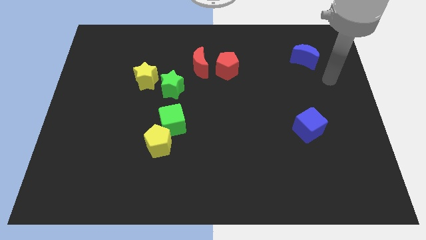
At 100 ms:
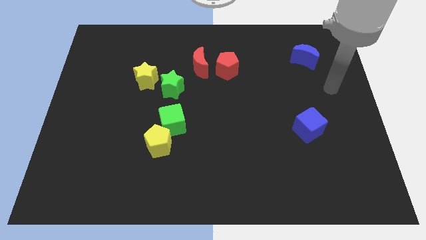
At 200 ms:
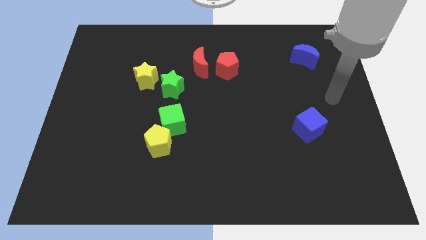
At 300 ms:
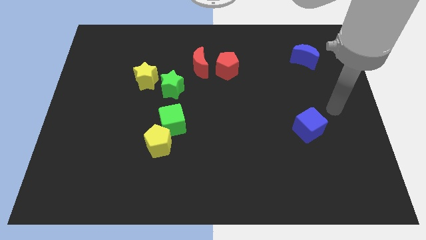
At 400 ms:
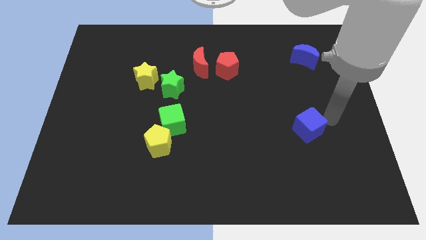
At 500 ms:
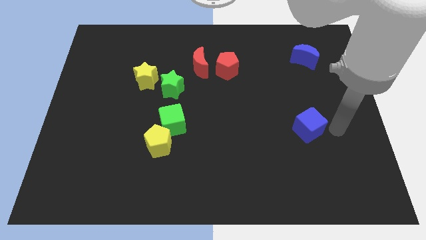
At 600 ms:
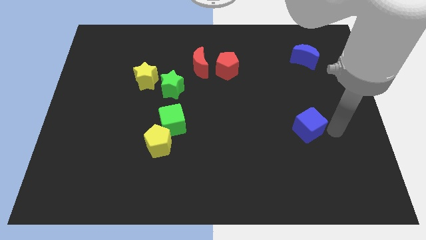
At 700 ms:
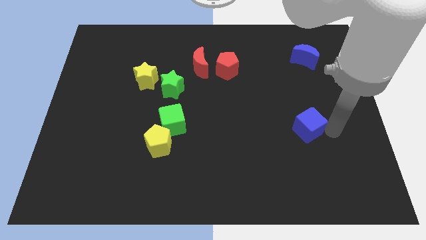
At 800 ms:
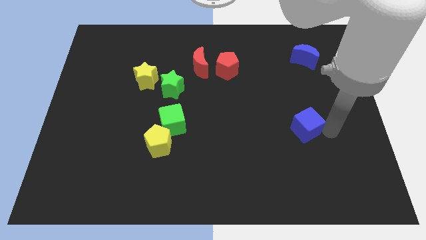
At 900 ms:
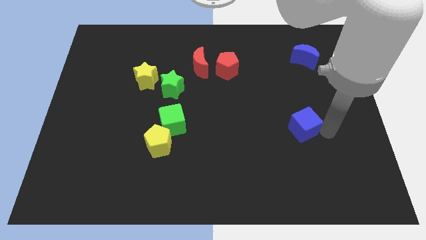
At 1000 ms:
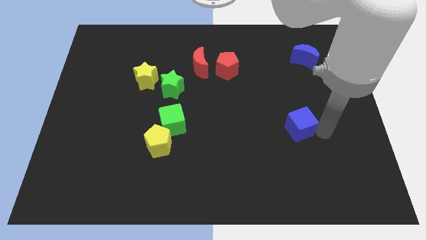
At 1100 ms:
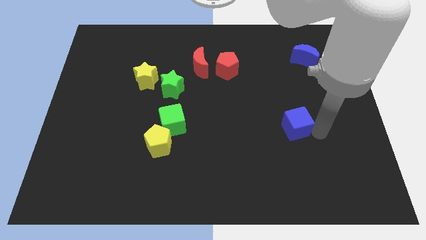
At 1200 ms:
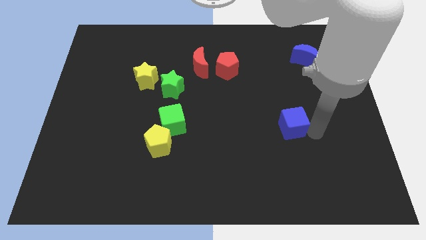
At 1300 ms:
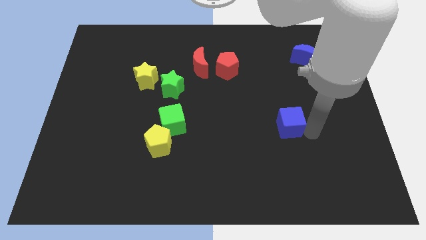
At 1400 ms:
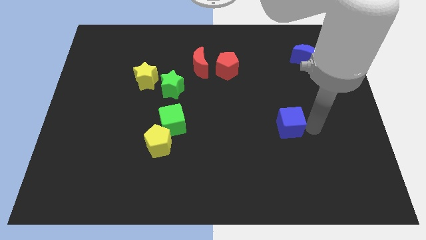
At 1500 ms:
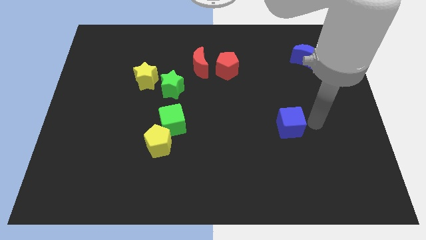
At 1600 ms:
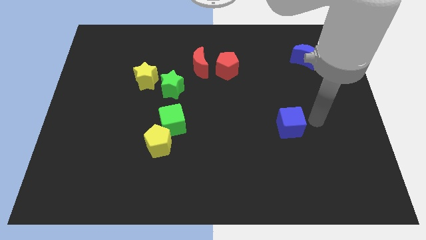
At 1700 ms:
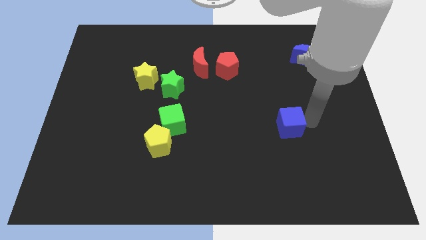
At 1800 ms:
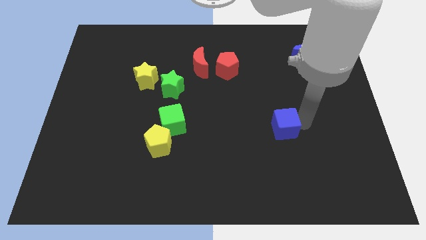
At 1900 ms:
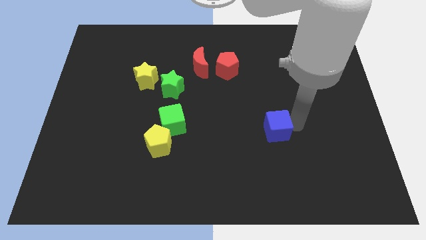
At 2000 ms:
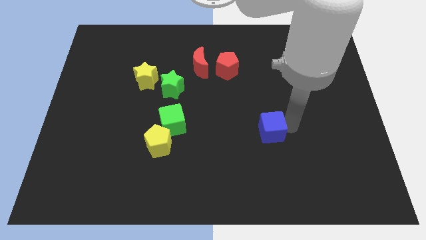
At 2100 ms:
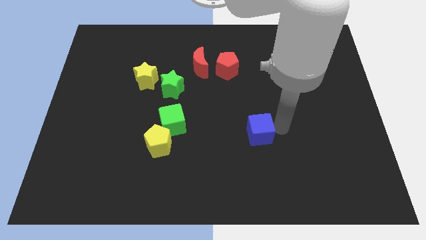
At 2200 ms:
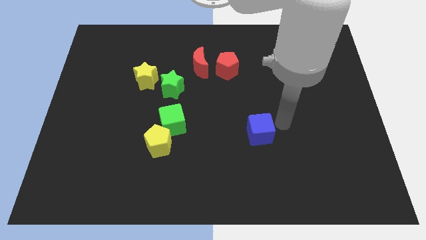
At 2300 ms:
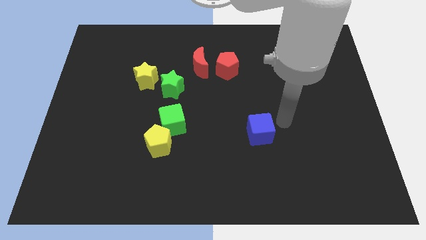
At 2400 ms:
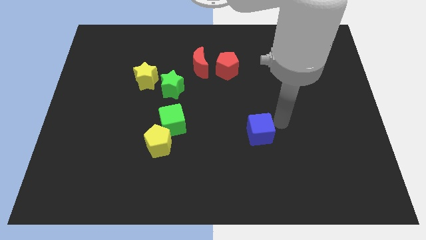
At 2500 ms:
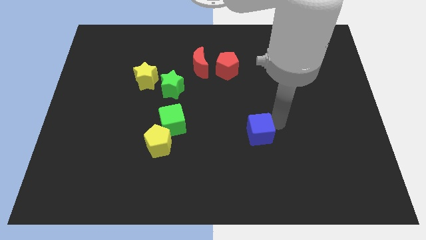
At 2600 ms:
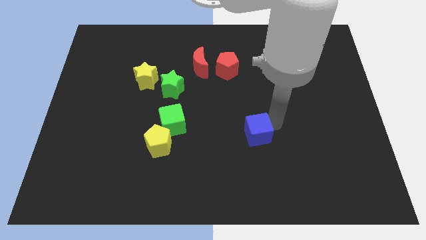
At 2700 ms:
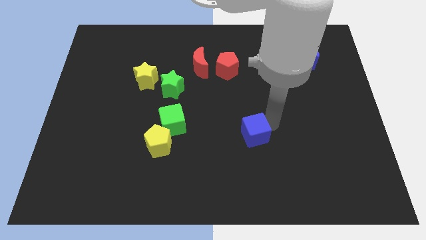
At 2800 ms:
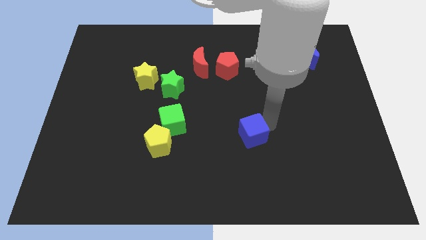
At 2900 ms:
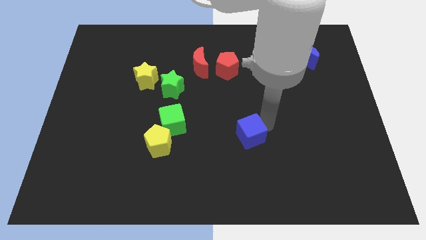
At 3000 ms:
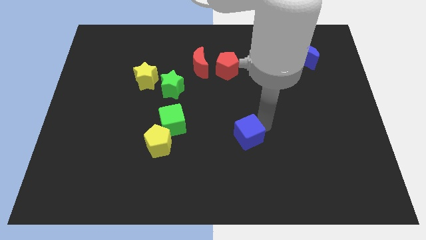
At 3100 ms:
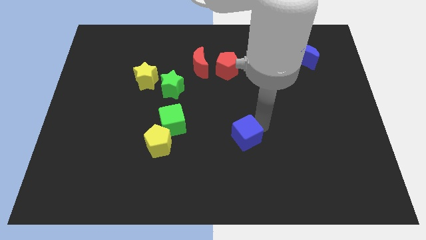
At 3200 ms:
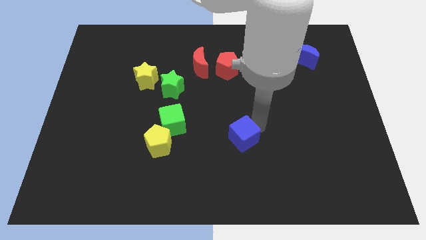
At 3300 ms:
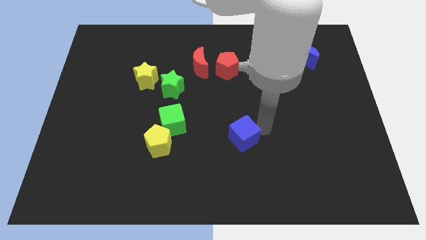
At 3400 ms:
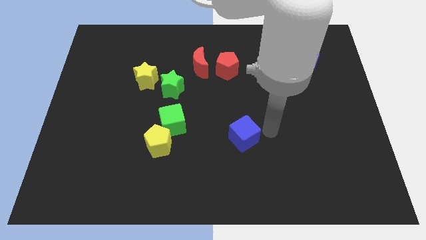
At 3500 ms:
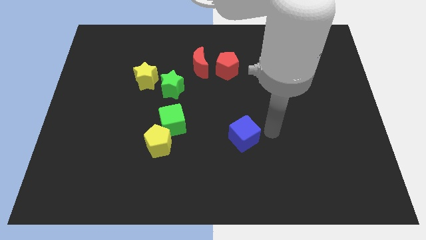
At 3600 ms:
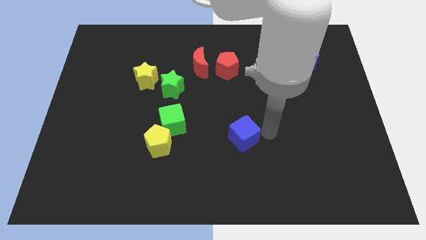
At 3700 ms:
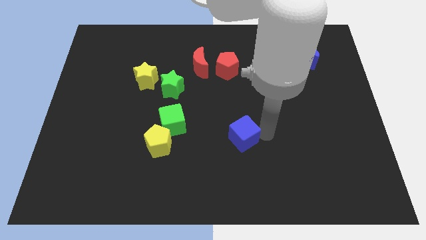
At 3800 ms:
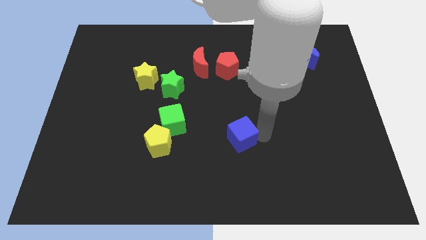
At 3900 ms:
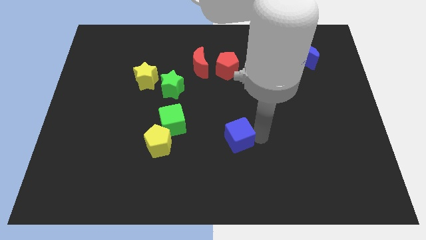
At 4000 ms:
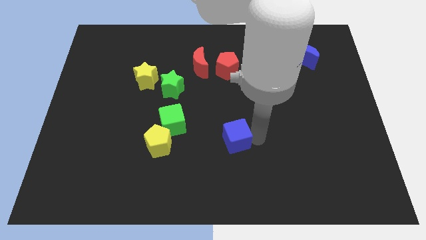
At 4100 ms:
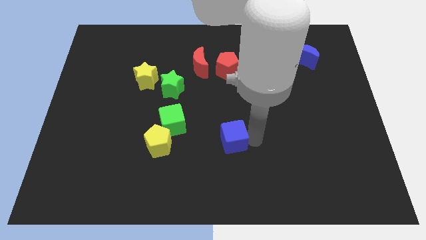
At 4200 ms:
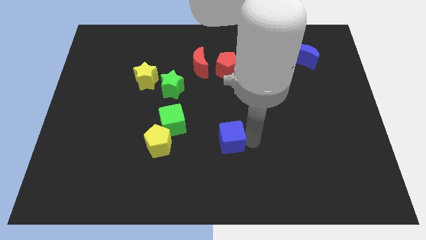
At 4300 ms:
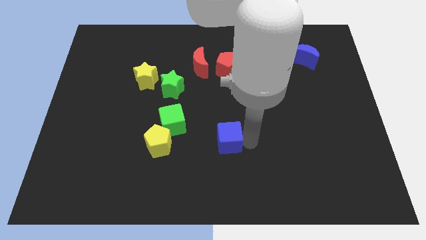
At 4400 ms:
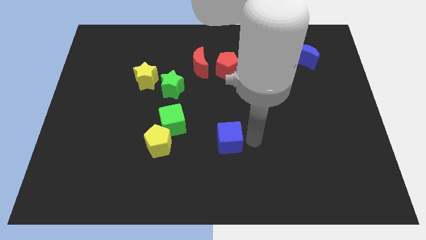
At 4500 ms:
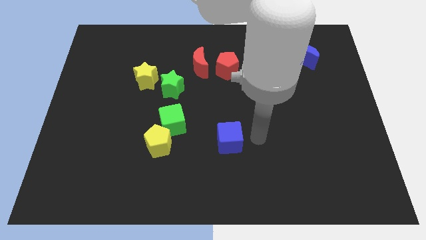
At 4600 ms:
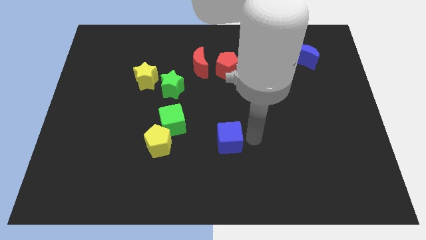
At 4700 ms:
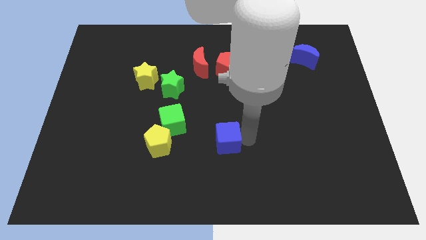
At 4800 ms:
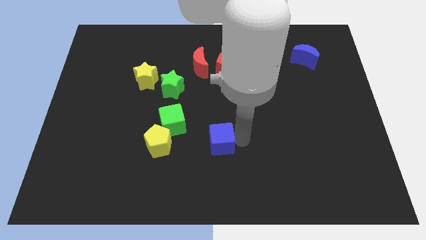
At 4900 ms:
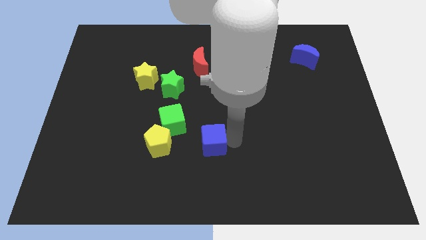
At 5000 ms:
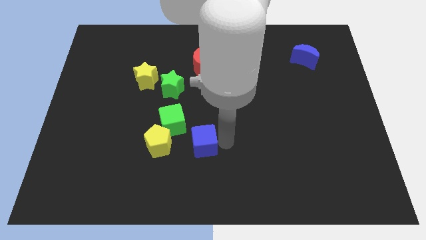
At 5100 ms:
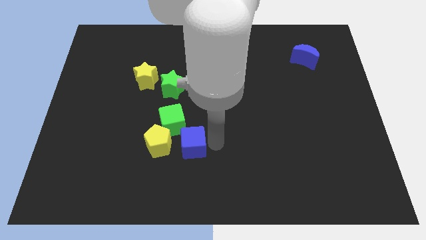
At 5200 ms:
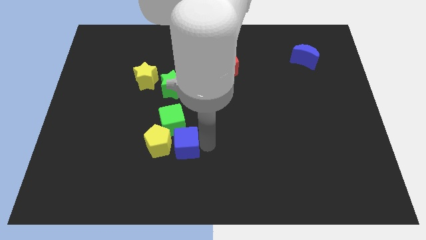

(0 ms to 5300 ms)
push the blue cube to the yellow pentagon
